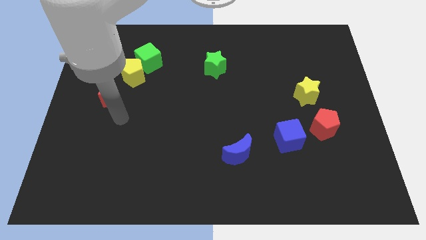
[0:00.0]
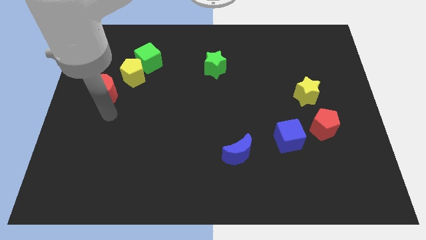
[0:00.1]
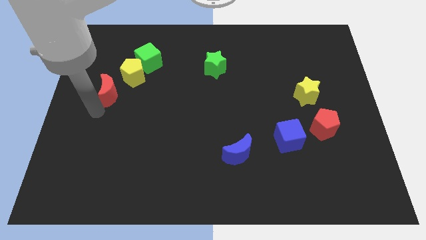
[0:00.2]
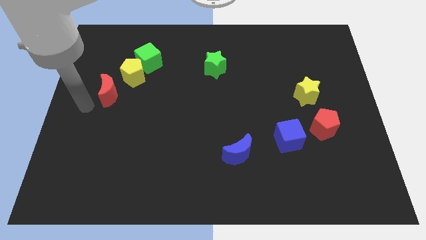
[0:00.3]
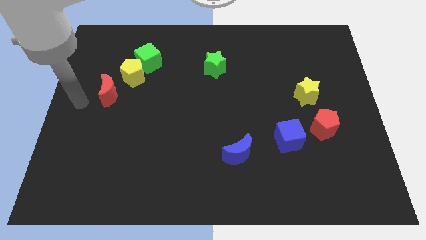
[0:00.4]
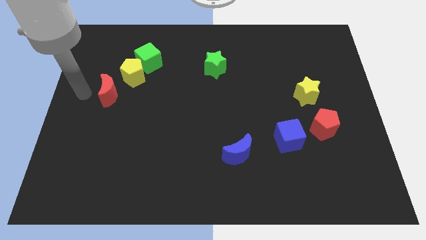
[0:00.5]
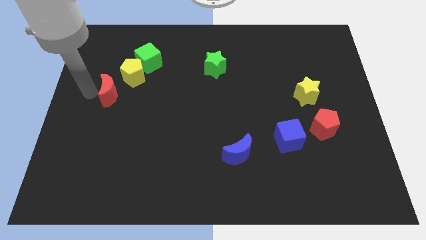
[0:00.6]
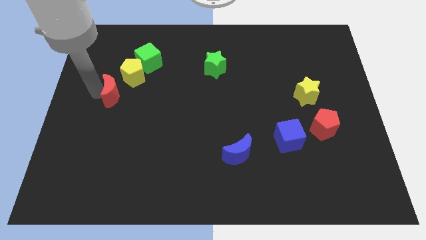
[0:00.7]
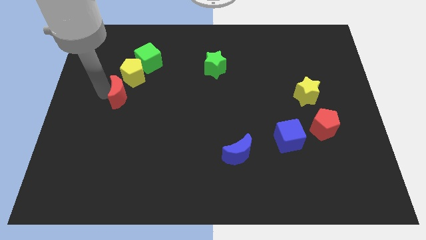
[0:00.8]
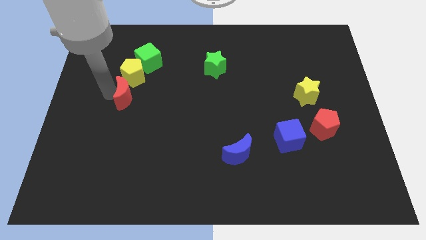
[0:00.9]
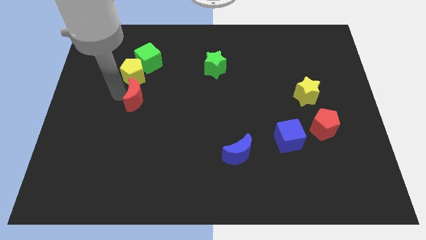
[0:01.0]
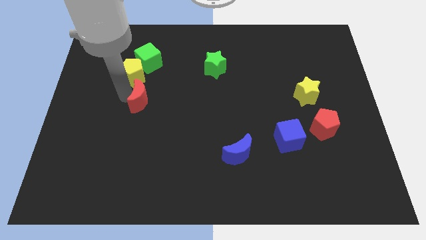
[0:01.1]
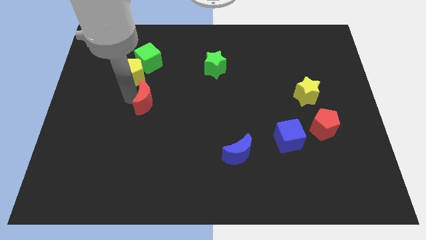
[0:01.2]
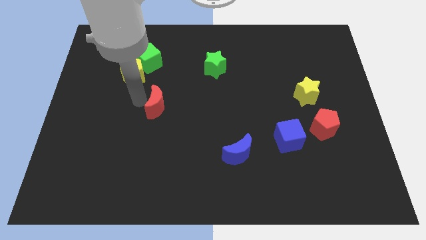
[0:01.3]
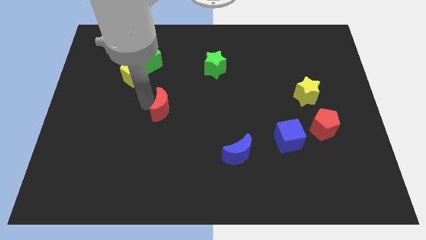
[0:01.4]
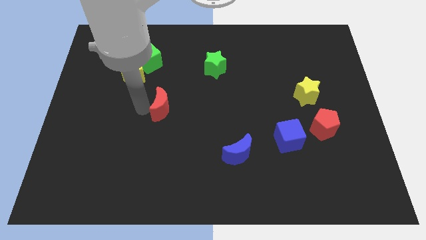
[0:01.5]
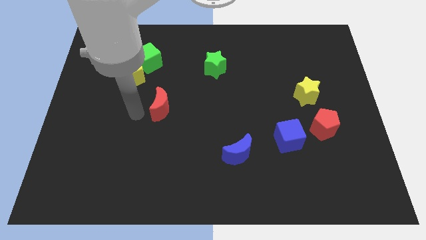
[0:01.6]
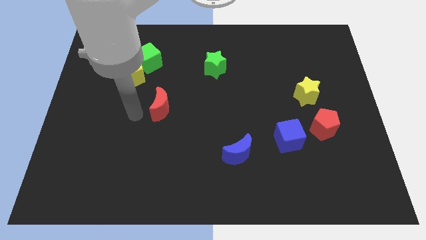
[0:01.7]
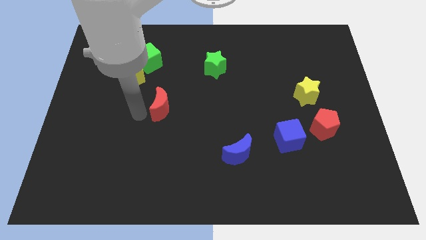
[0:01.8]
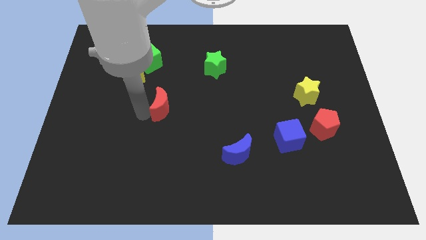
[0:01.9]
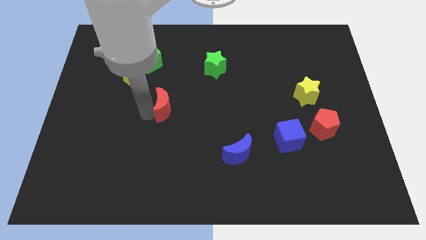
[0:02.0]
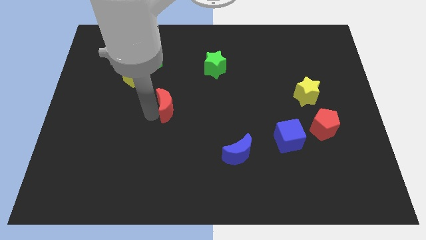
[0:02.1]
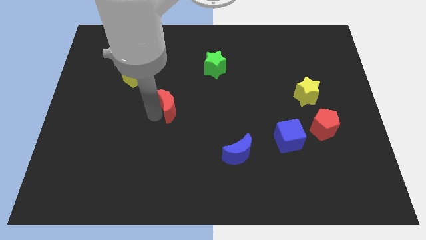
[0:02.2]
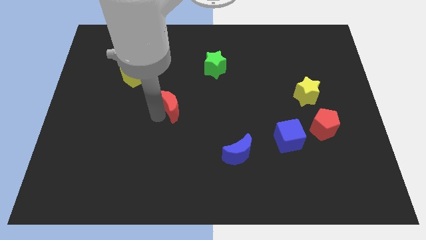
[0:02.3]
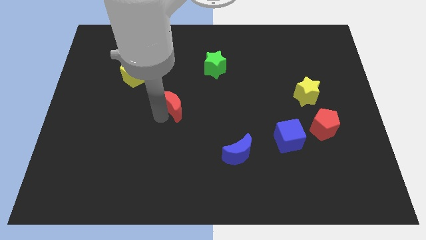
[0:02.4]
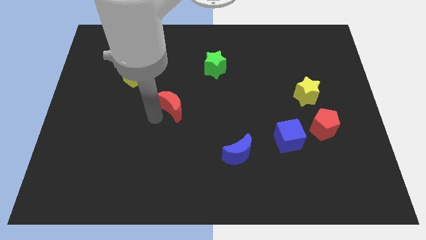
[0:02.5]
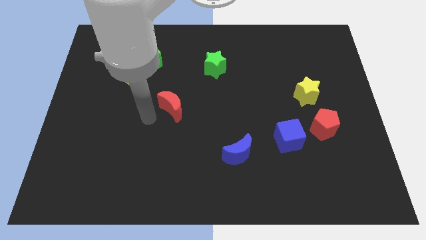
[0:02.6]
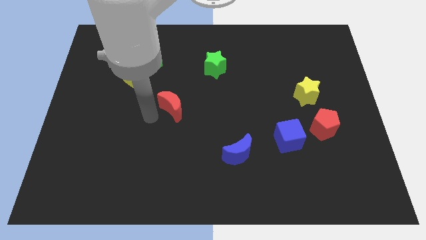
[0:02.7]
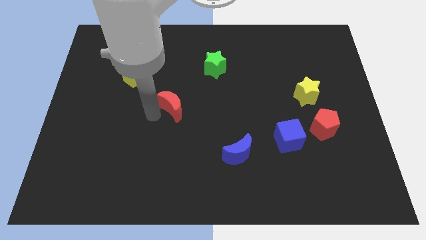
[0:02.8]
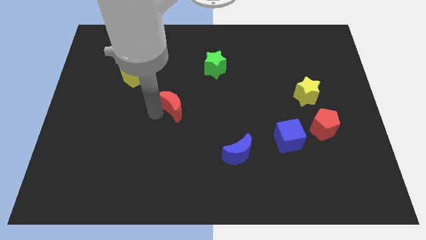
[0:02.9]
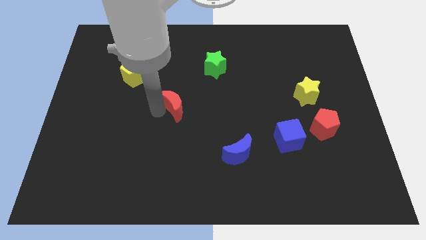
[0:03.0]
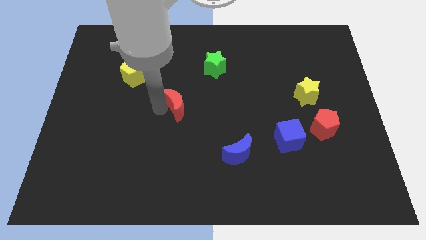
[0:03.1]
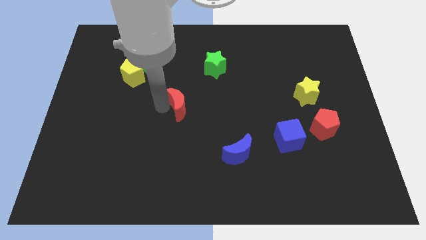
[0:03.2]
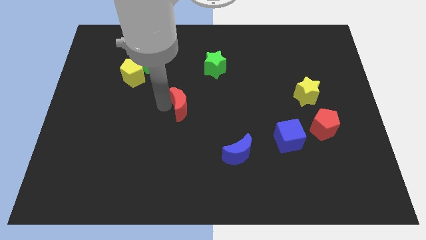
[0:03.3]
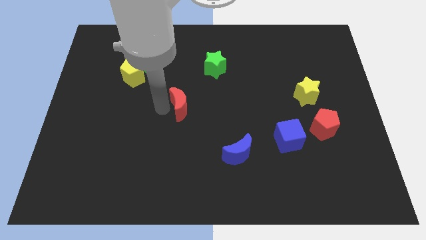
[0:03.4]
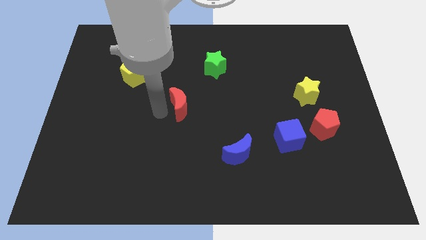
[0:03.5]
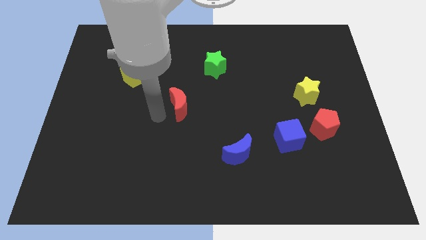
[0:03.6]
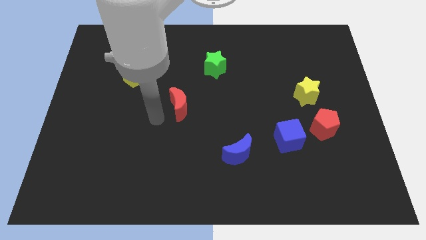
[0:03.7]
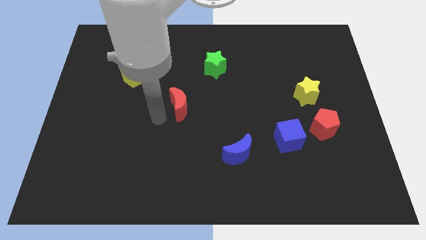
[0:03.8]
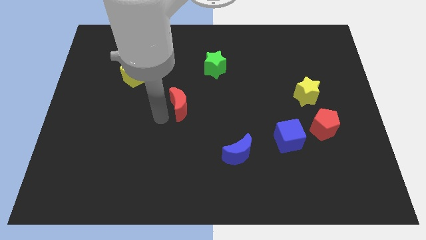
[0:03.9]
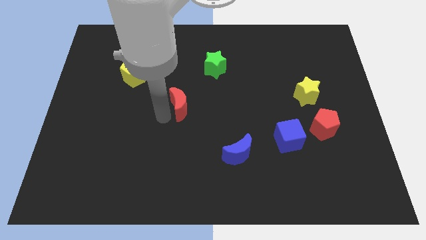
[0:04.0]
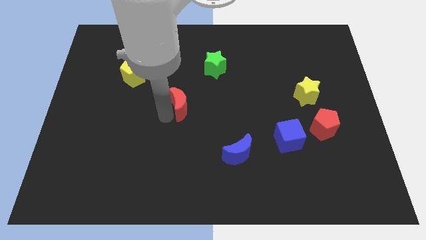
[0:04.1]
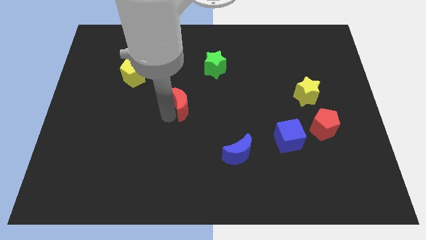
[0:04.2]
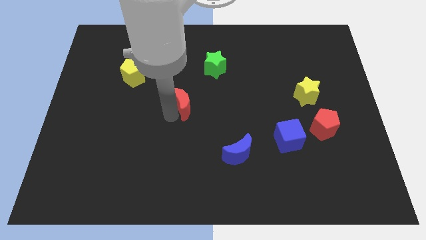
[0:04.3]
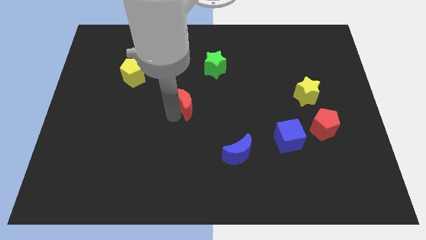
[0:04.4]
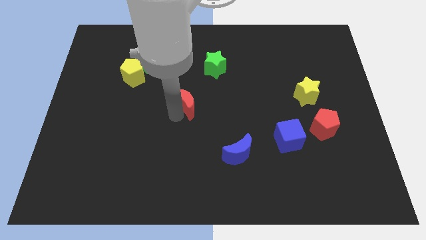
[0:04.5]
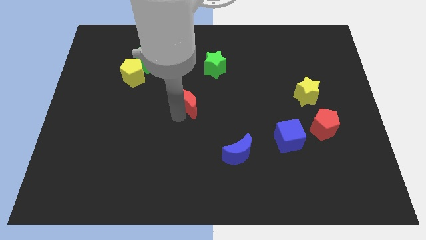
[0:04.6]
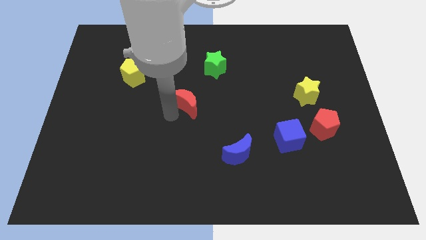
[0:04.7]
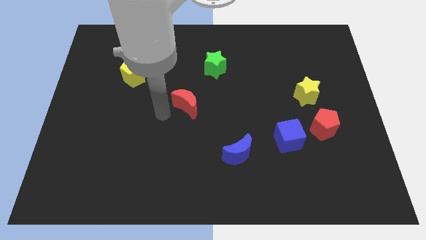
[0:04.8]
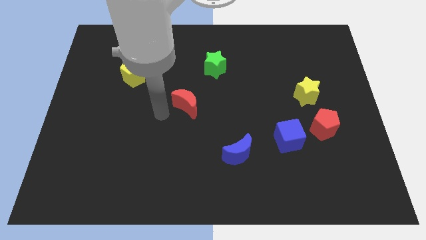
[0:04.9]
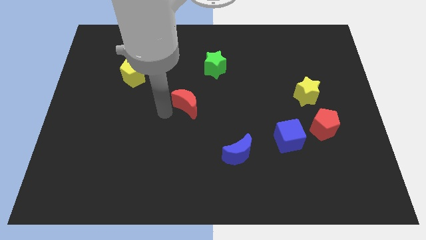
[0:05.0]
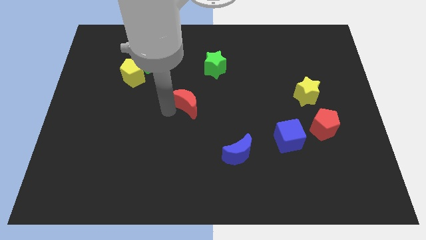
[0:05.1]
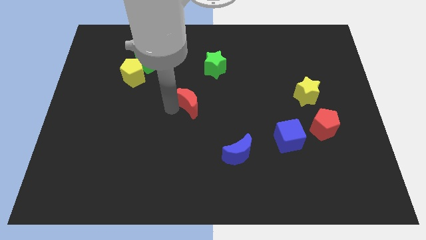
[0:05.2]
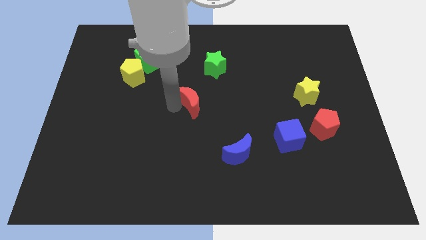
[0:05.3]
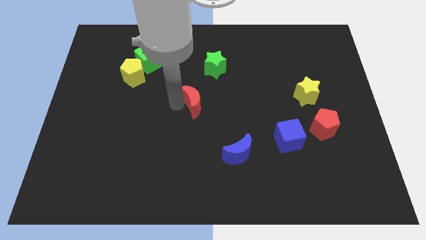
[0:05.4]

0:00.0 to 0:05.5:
push the red moon right

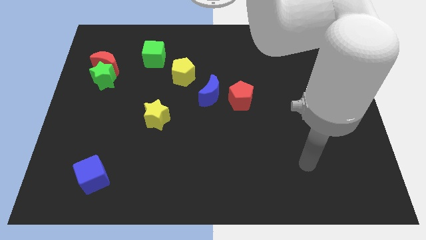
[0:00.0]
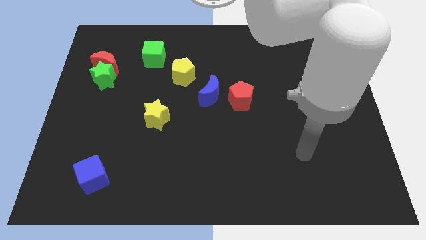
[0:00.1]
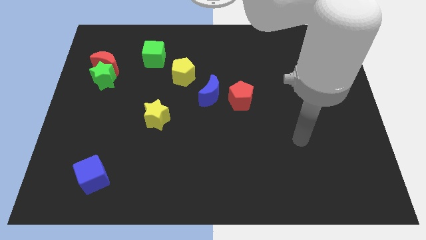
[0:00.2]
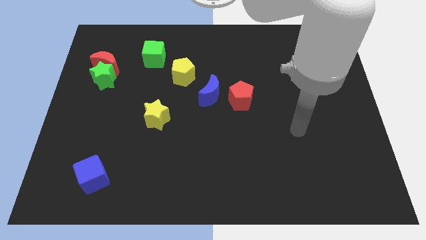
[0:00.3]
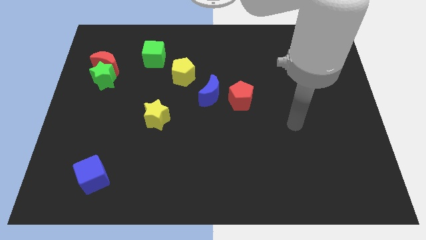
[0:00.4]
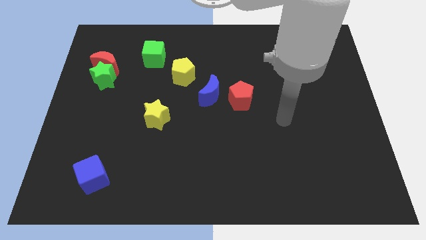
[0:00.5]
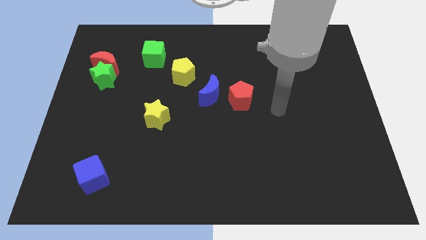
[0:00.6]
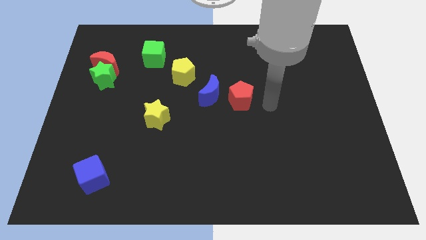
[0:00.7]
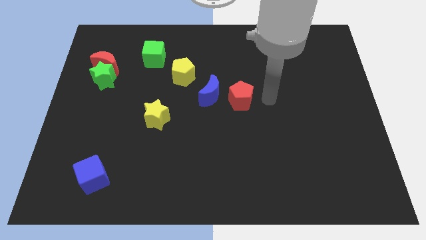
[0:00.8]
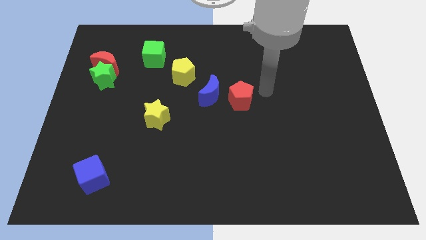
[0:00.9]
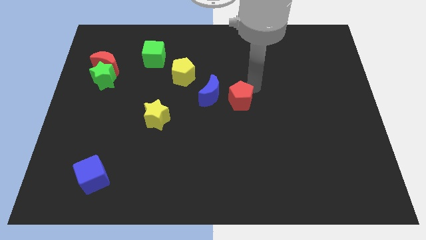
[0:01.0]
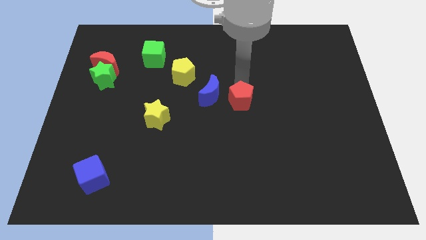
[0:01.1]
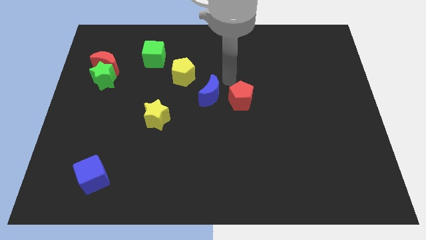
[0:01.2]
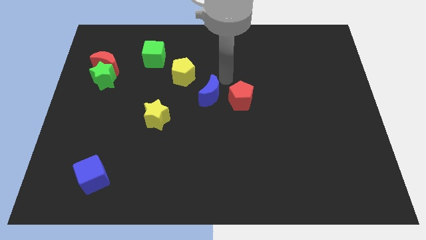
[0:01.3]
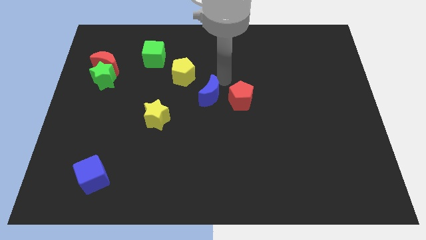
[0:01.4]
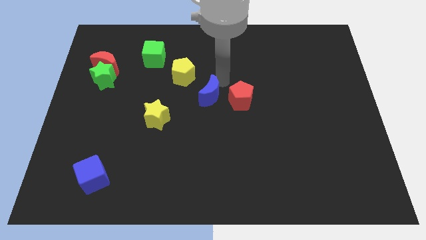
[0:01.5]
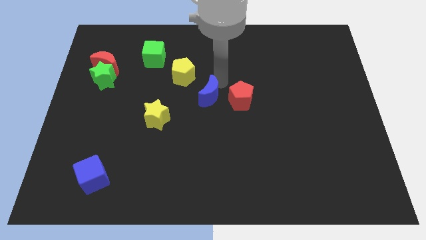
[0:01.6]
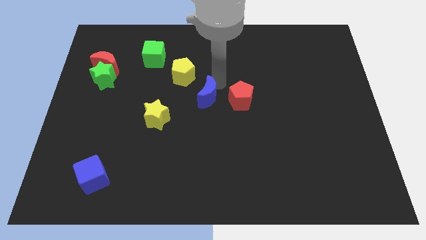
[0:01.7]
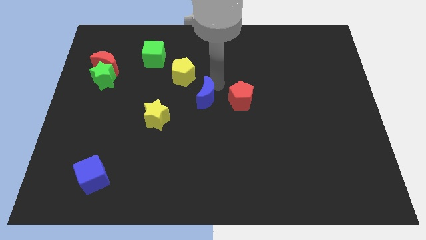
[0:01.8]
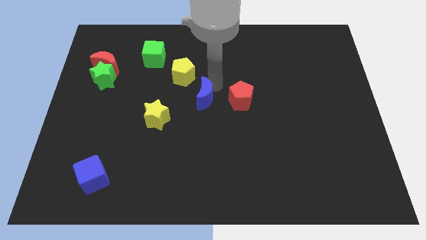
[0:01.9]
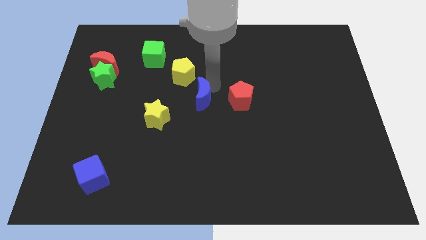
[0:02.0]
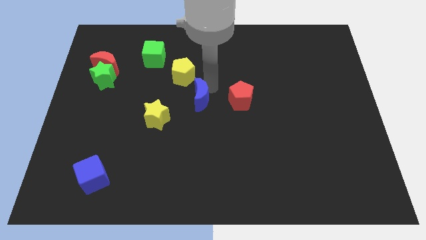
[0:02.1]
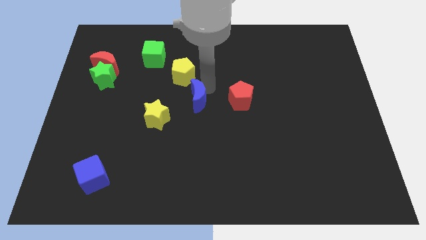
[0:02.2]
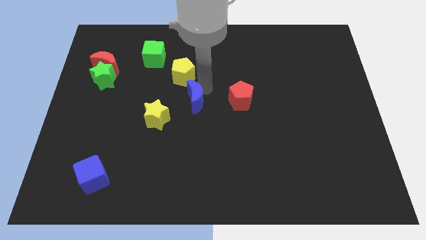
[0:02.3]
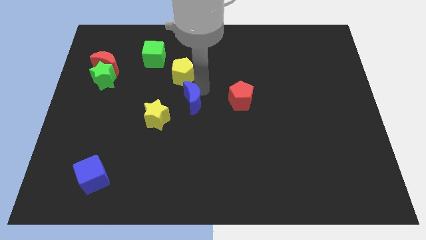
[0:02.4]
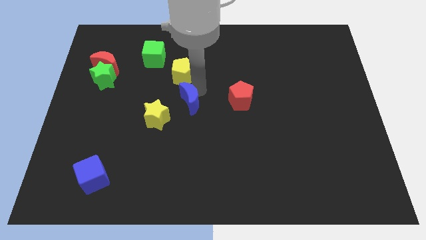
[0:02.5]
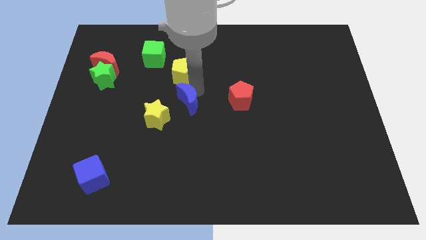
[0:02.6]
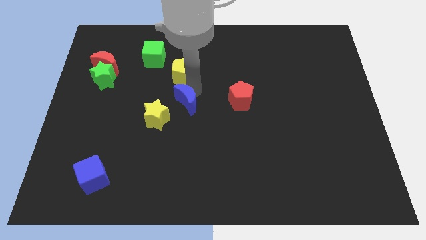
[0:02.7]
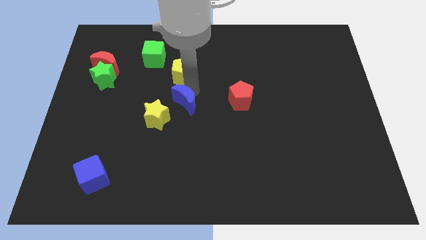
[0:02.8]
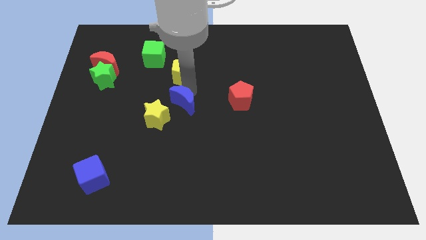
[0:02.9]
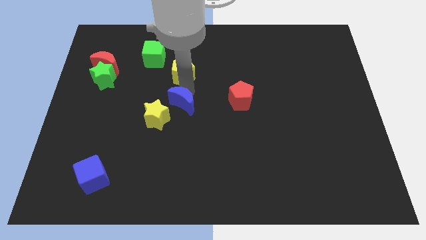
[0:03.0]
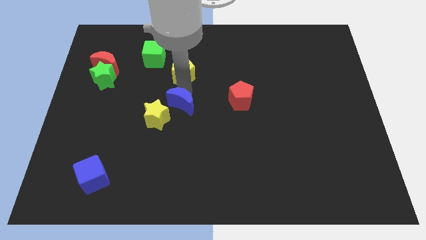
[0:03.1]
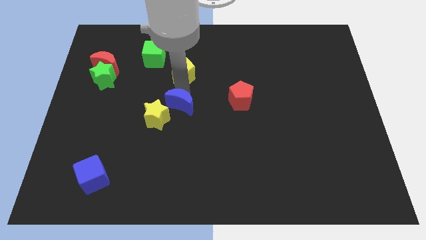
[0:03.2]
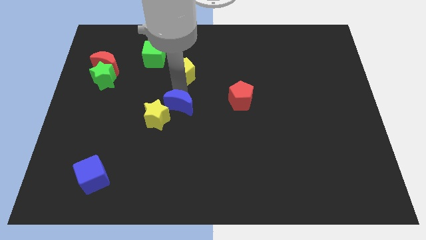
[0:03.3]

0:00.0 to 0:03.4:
slightly slide the blue moon diagonally downwards and to the left
